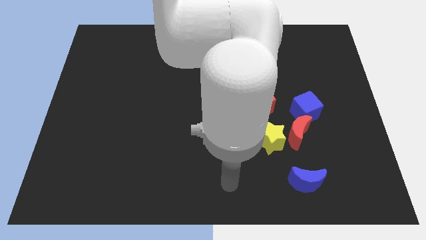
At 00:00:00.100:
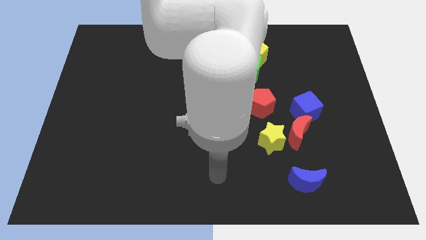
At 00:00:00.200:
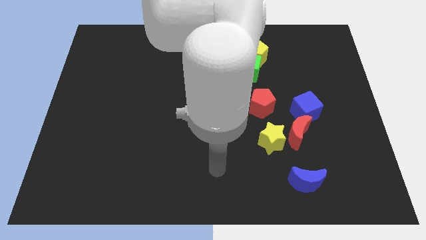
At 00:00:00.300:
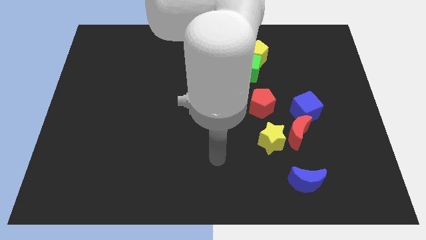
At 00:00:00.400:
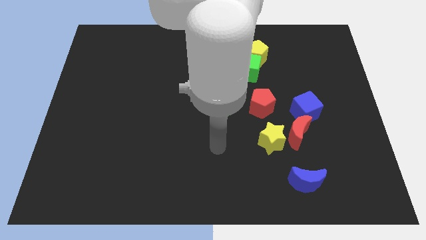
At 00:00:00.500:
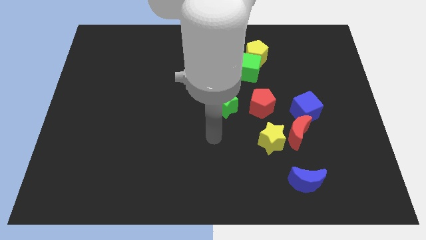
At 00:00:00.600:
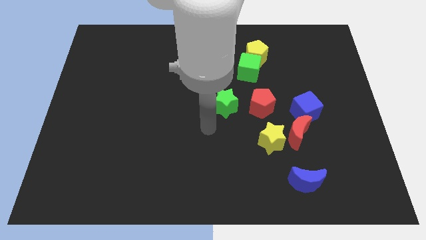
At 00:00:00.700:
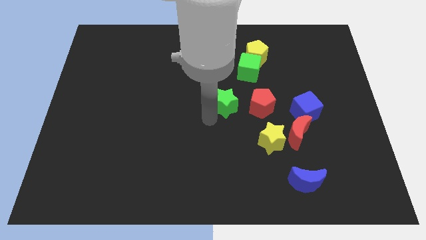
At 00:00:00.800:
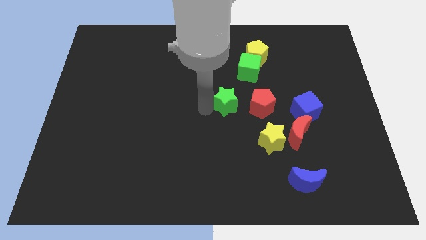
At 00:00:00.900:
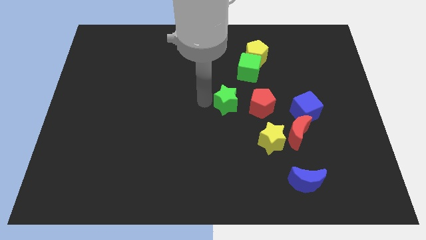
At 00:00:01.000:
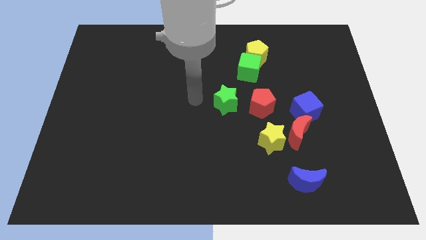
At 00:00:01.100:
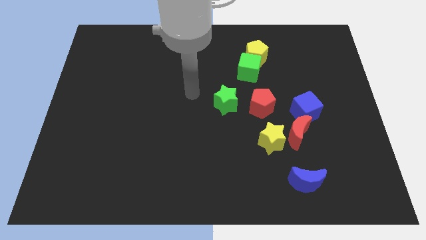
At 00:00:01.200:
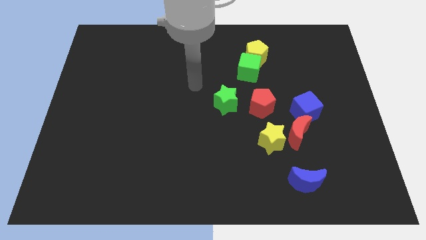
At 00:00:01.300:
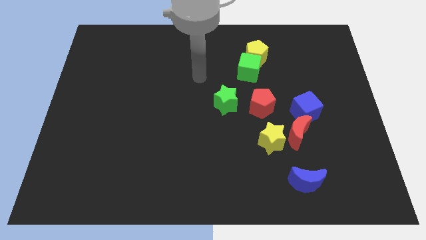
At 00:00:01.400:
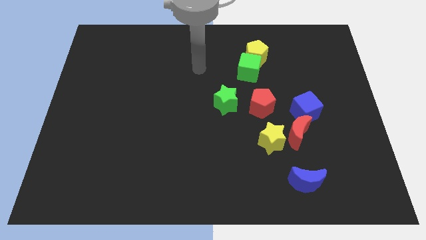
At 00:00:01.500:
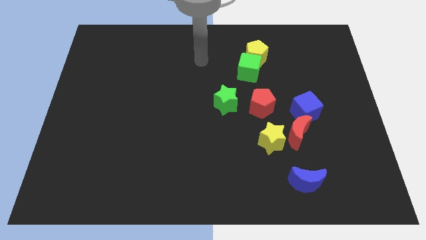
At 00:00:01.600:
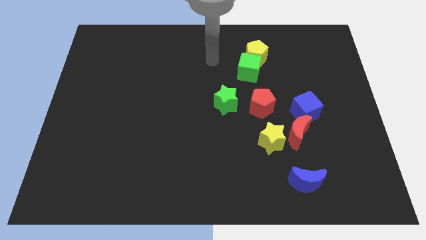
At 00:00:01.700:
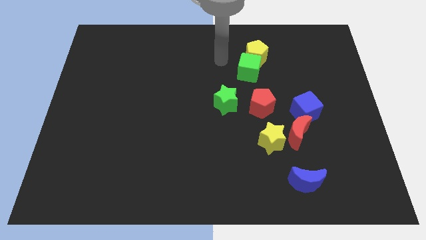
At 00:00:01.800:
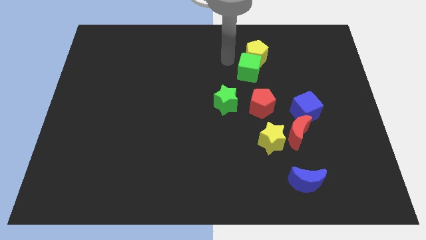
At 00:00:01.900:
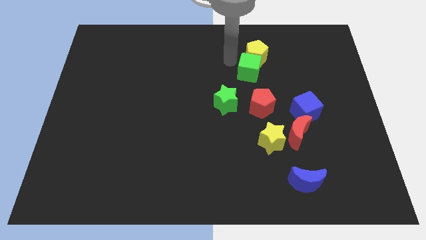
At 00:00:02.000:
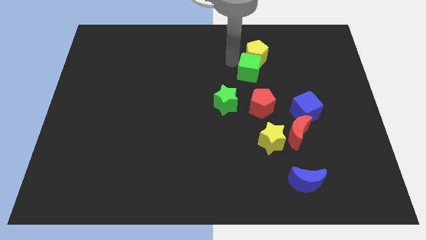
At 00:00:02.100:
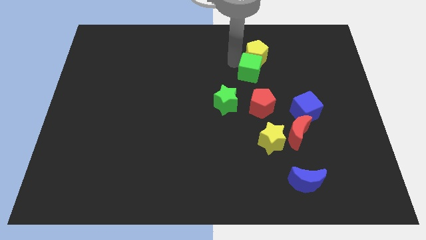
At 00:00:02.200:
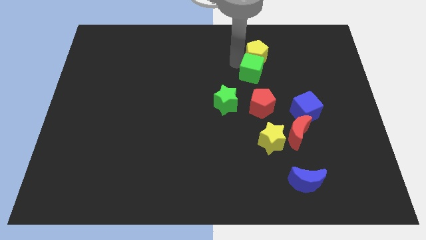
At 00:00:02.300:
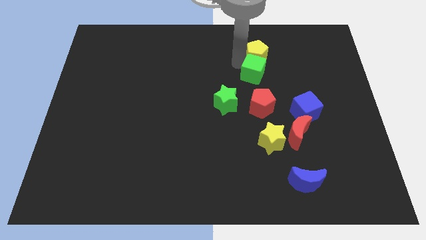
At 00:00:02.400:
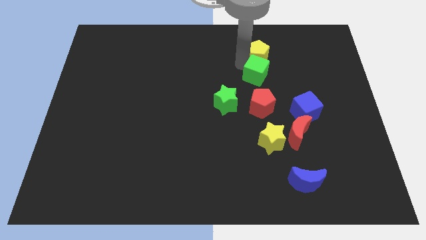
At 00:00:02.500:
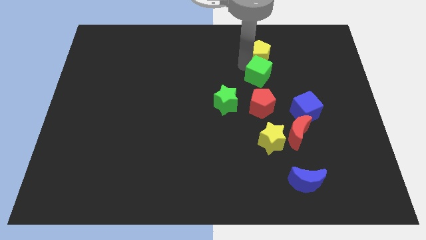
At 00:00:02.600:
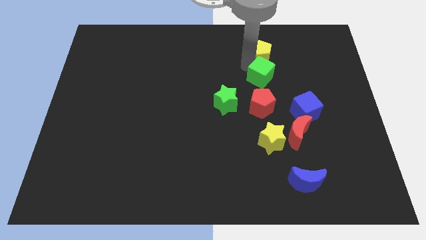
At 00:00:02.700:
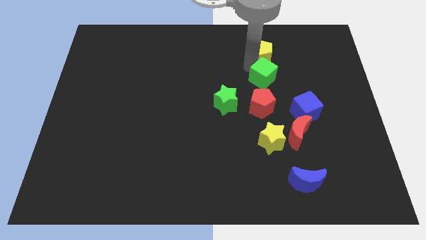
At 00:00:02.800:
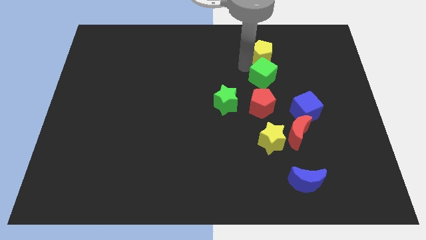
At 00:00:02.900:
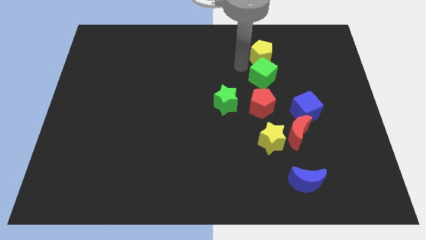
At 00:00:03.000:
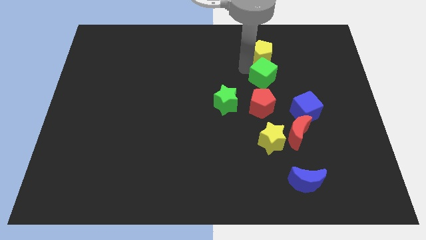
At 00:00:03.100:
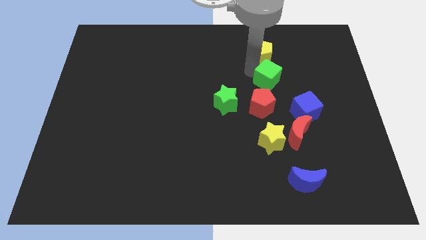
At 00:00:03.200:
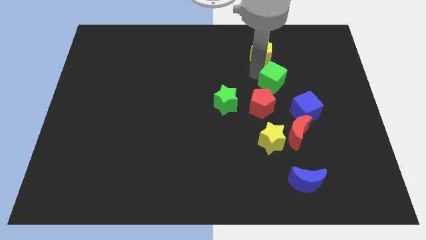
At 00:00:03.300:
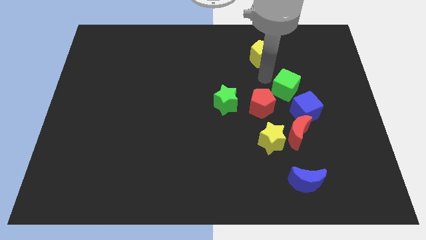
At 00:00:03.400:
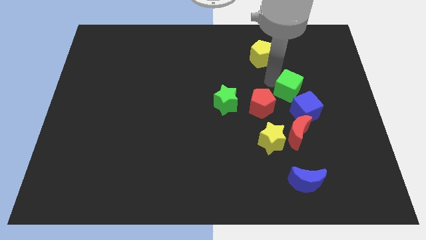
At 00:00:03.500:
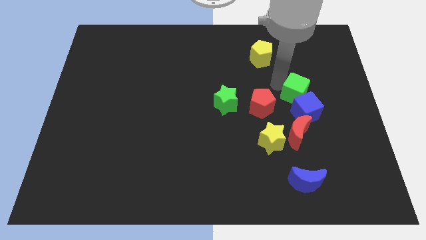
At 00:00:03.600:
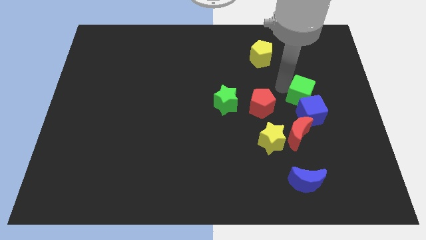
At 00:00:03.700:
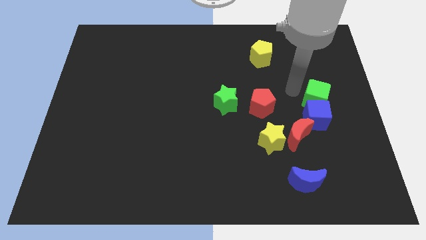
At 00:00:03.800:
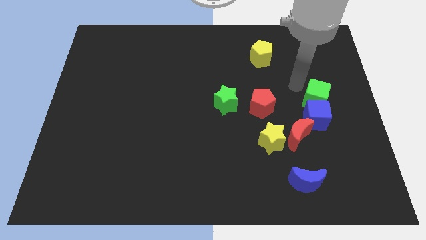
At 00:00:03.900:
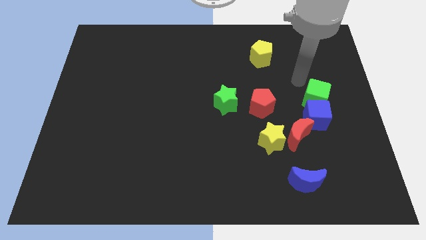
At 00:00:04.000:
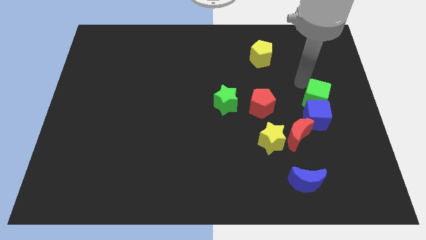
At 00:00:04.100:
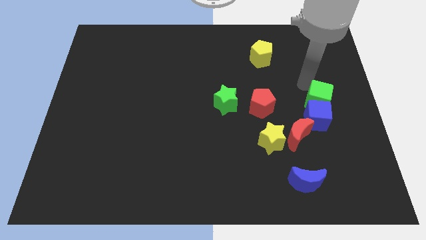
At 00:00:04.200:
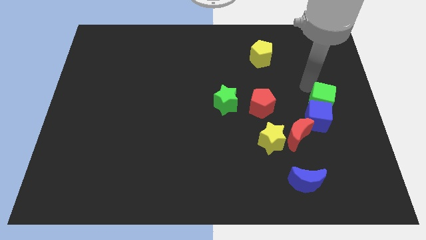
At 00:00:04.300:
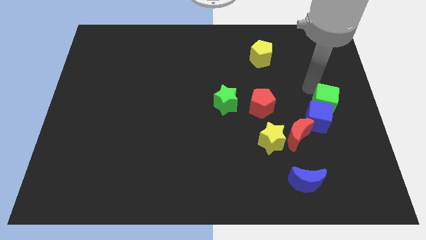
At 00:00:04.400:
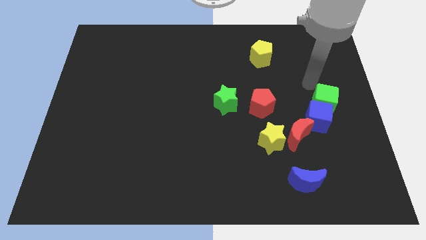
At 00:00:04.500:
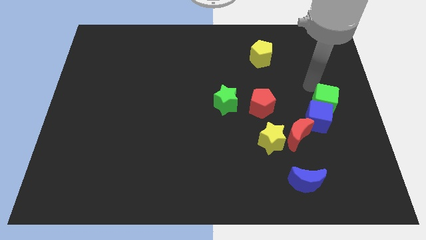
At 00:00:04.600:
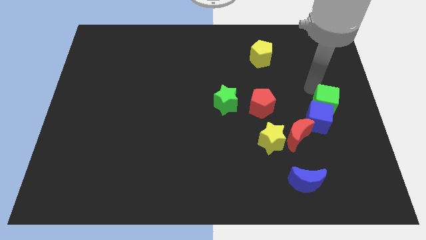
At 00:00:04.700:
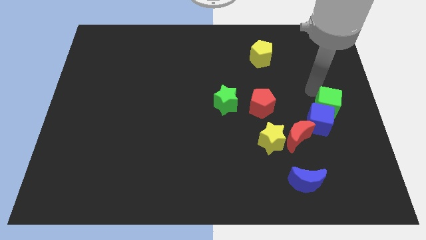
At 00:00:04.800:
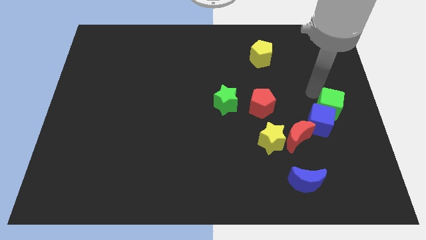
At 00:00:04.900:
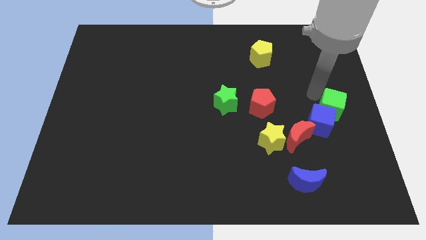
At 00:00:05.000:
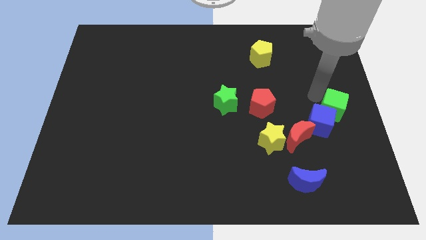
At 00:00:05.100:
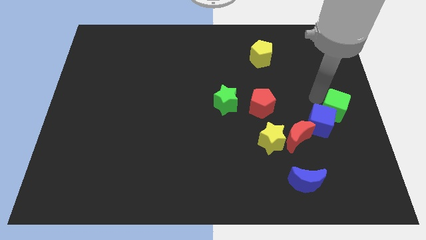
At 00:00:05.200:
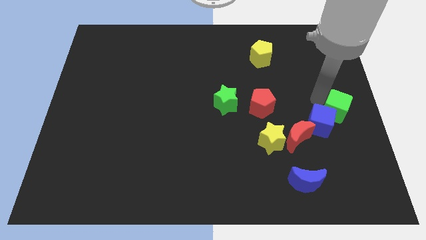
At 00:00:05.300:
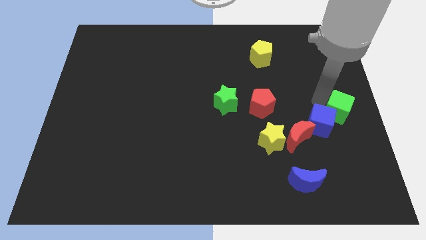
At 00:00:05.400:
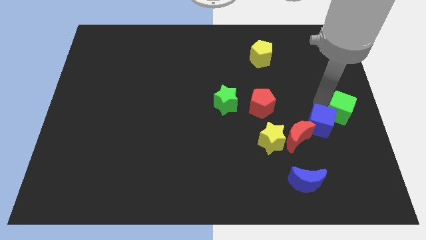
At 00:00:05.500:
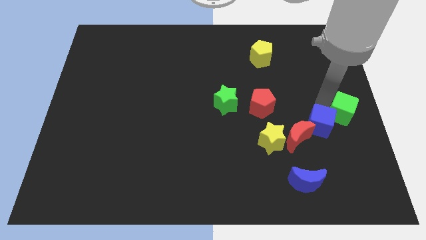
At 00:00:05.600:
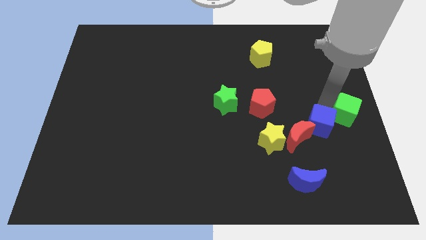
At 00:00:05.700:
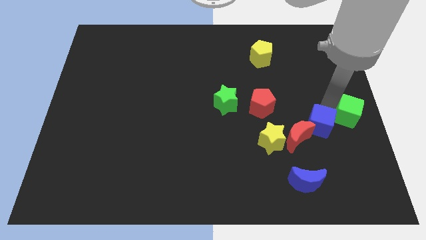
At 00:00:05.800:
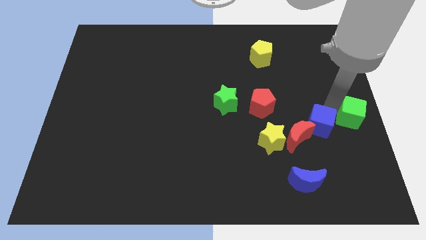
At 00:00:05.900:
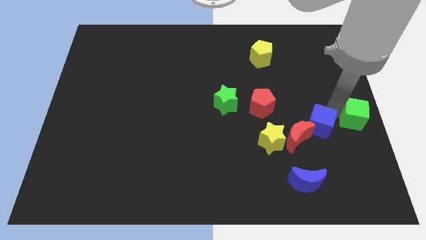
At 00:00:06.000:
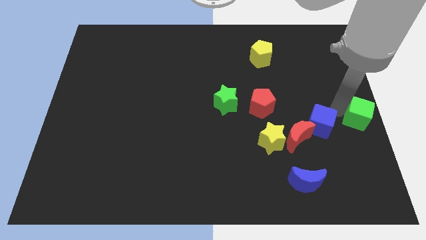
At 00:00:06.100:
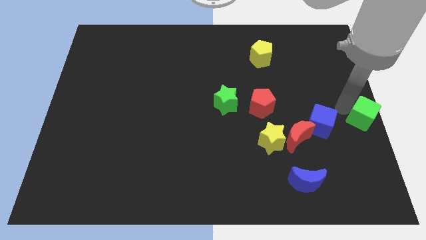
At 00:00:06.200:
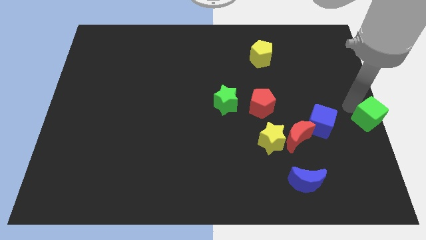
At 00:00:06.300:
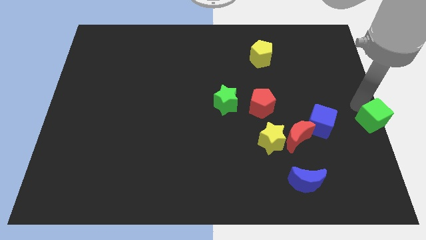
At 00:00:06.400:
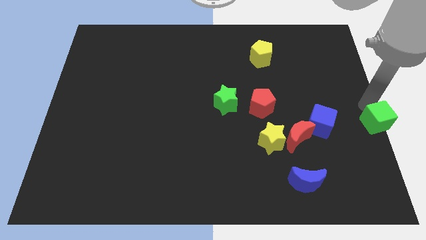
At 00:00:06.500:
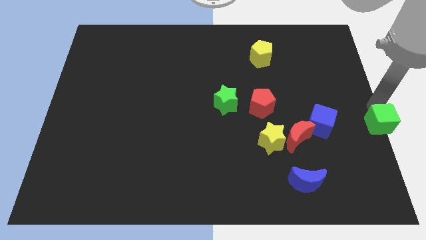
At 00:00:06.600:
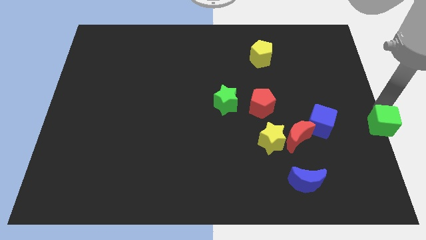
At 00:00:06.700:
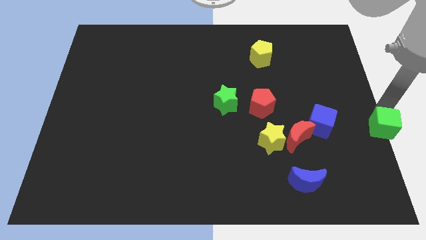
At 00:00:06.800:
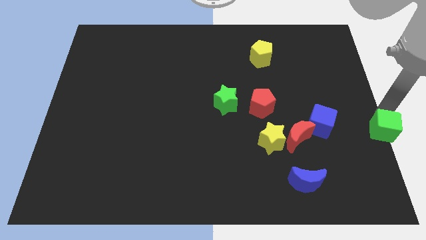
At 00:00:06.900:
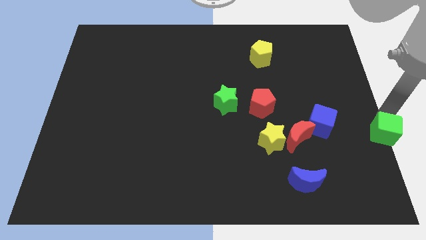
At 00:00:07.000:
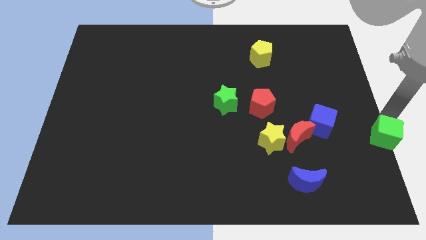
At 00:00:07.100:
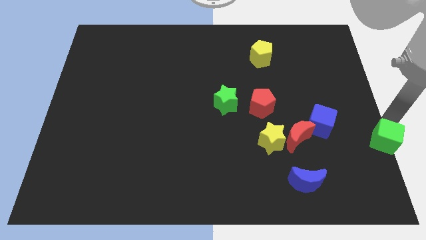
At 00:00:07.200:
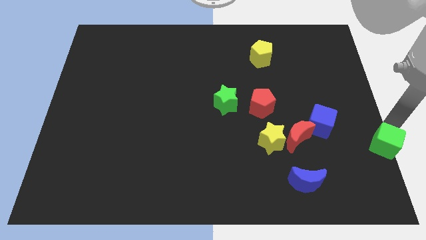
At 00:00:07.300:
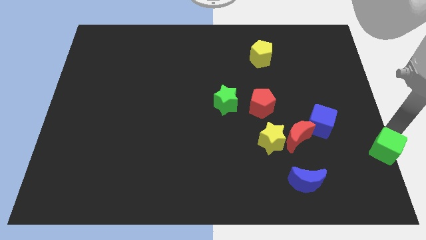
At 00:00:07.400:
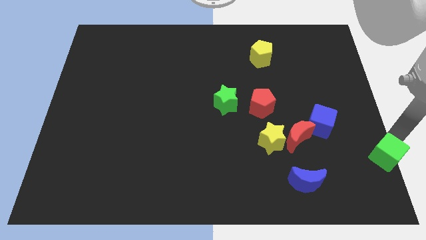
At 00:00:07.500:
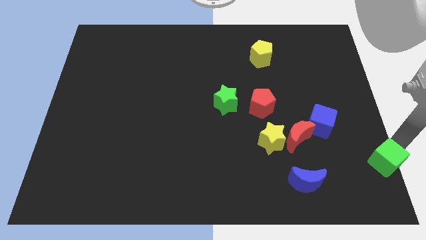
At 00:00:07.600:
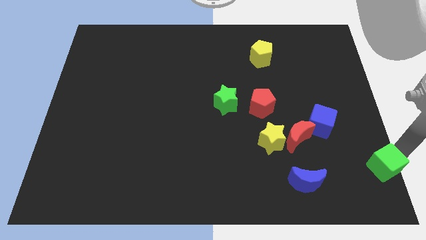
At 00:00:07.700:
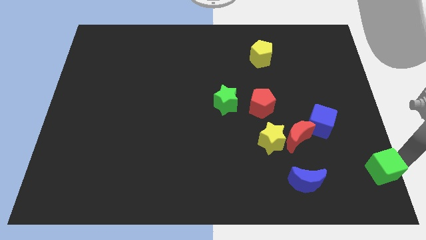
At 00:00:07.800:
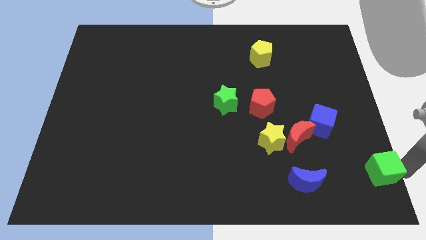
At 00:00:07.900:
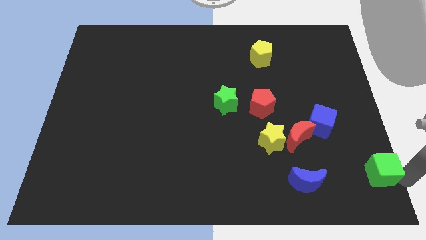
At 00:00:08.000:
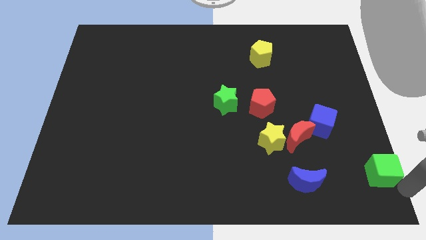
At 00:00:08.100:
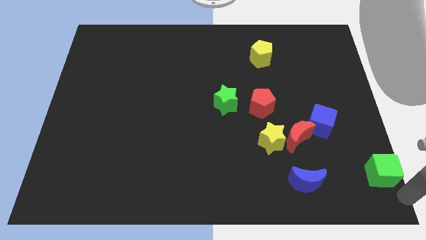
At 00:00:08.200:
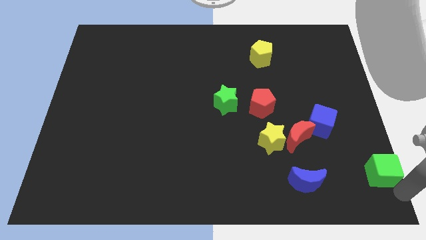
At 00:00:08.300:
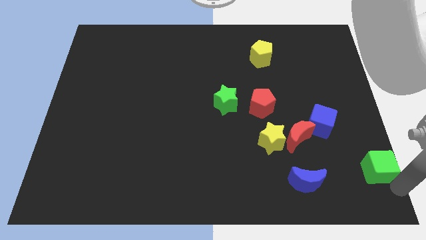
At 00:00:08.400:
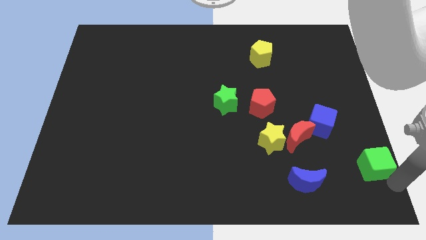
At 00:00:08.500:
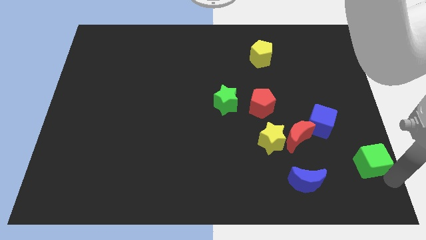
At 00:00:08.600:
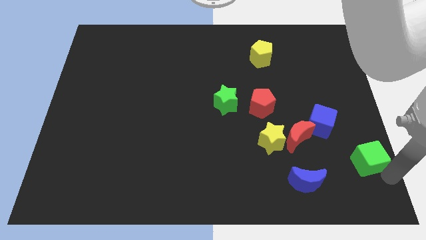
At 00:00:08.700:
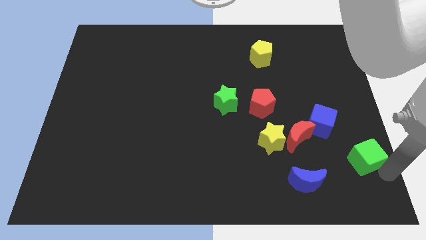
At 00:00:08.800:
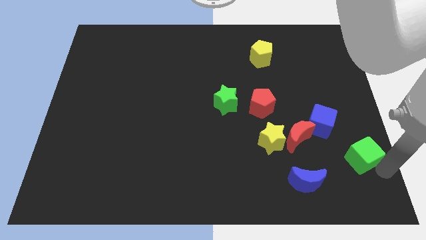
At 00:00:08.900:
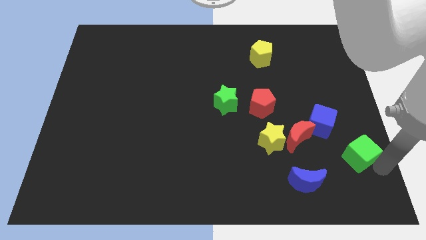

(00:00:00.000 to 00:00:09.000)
put the green cube to the right side of the red moon
